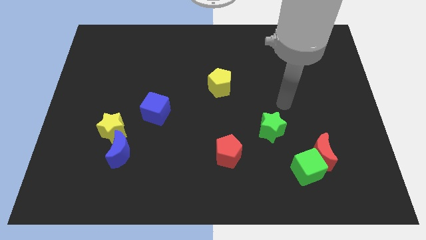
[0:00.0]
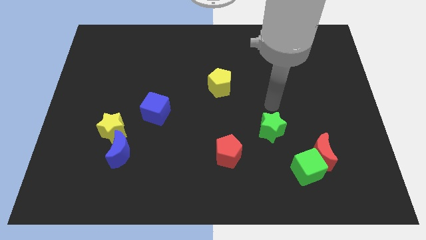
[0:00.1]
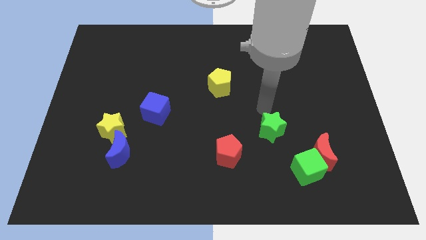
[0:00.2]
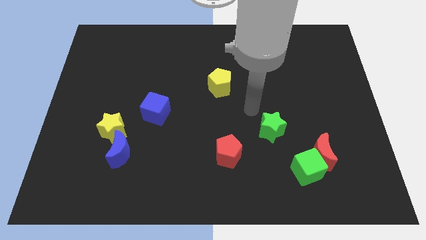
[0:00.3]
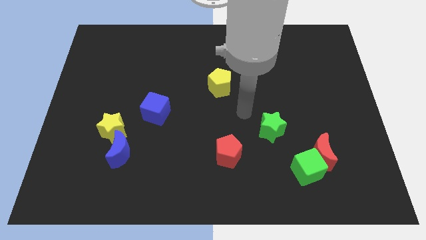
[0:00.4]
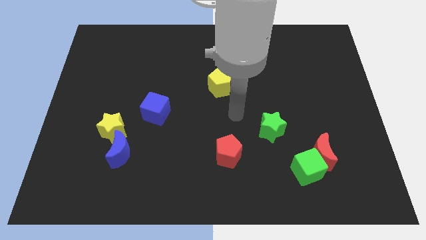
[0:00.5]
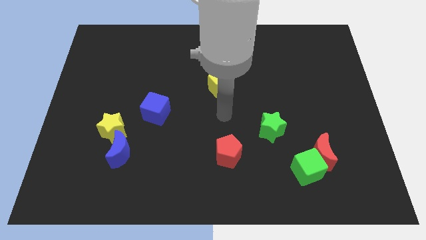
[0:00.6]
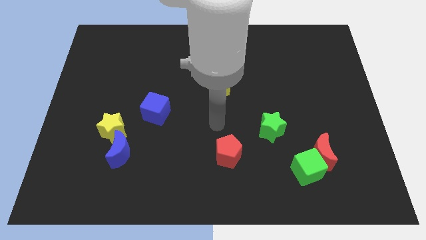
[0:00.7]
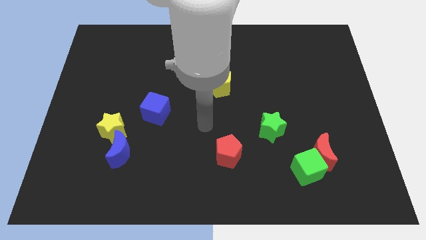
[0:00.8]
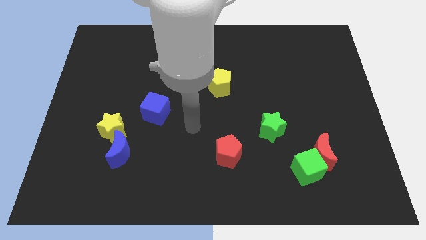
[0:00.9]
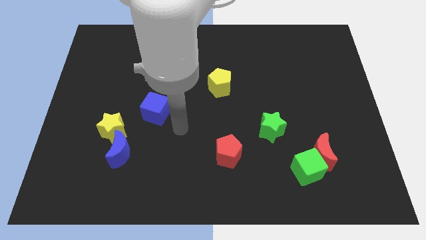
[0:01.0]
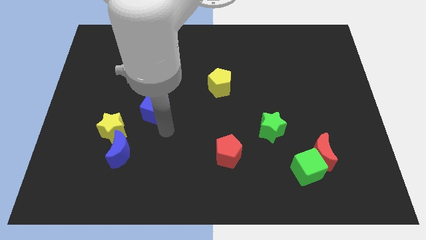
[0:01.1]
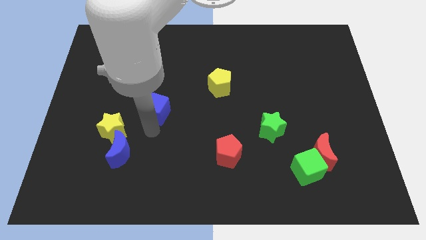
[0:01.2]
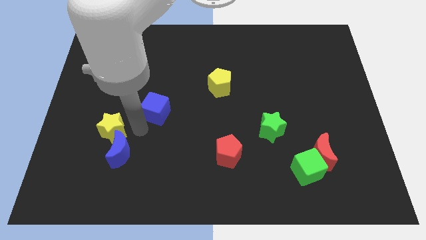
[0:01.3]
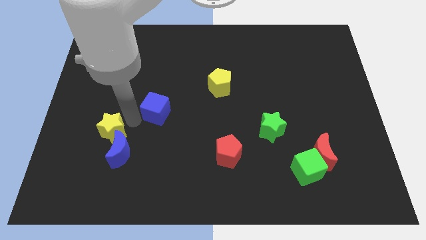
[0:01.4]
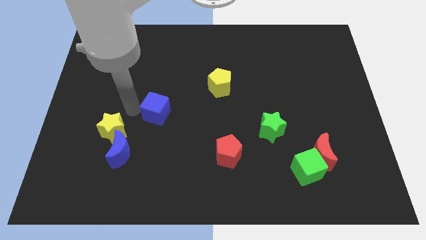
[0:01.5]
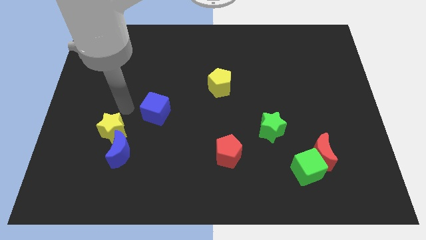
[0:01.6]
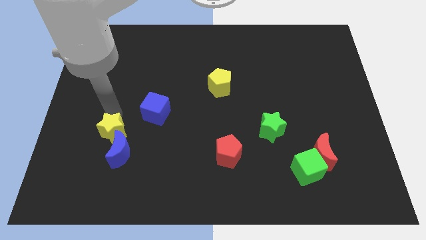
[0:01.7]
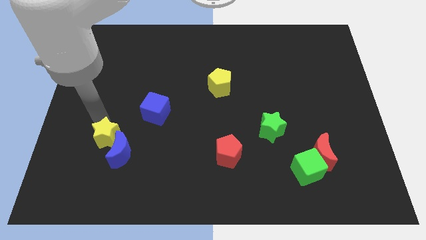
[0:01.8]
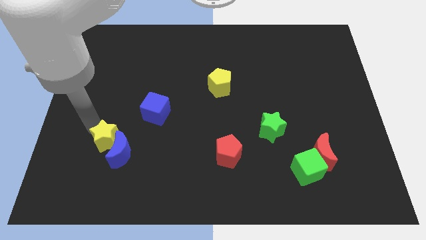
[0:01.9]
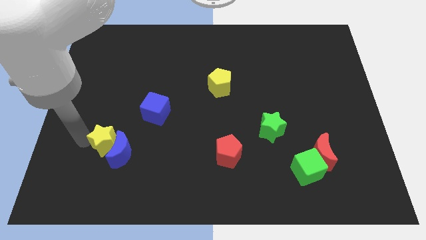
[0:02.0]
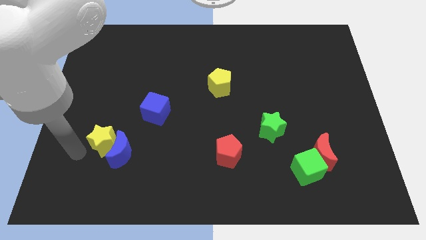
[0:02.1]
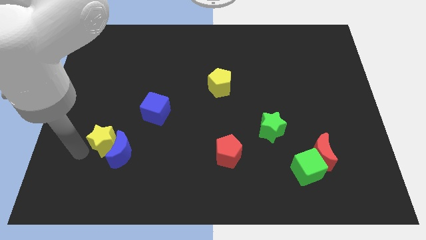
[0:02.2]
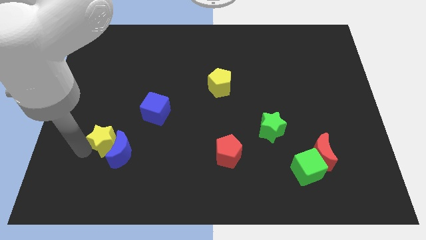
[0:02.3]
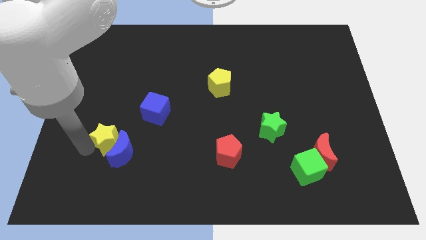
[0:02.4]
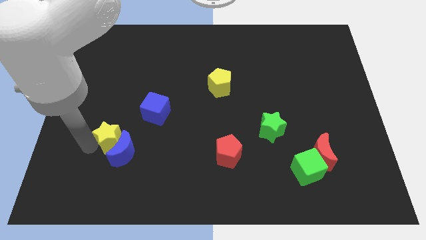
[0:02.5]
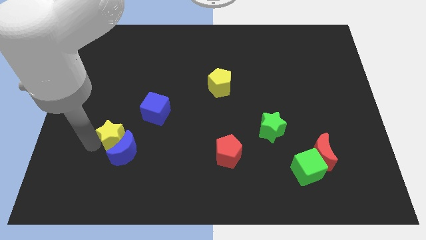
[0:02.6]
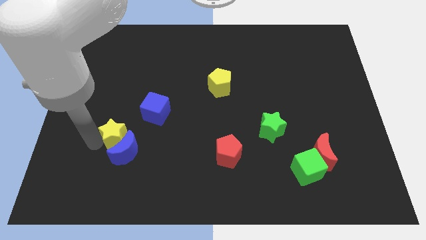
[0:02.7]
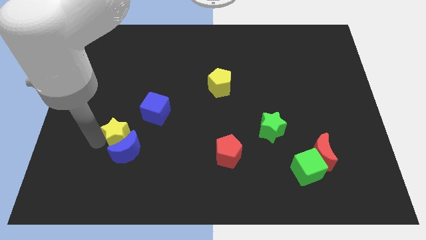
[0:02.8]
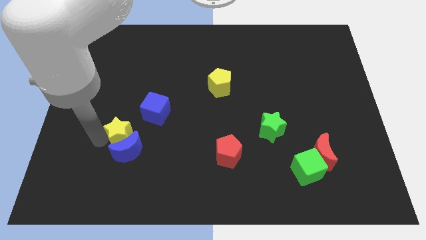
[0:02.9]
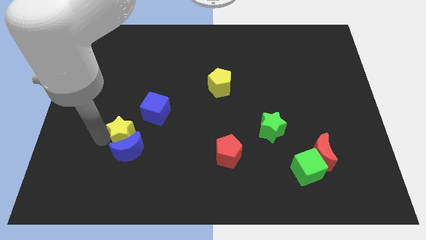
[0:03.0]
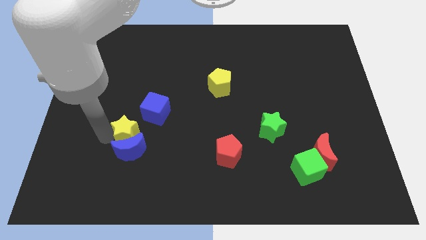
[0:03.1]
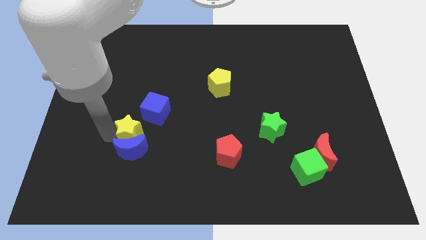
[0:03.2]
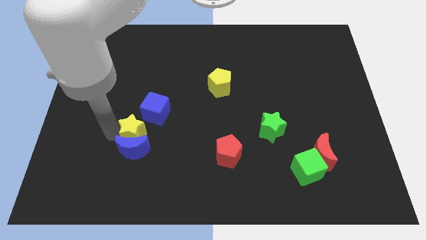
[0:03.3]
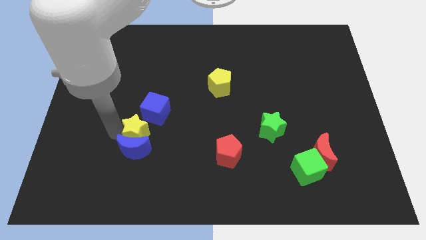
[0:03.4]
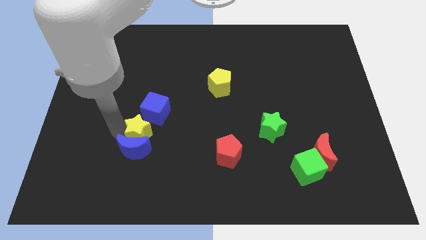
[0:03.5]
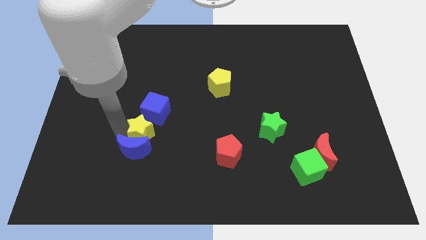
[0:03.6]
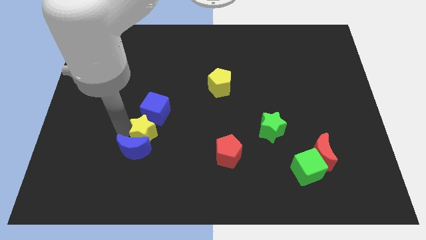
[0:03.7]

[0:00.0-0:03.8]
push the yellow star a little right

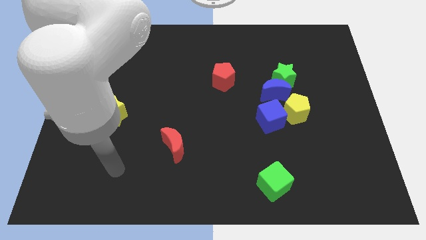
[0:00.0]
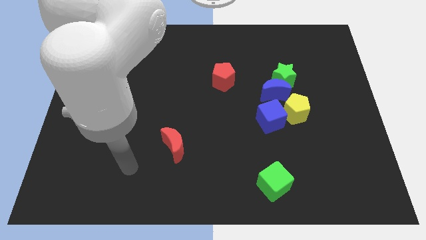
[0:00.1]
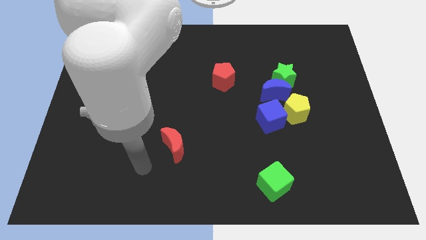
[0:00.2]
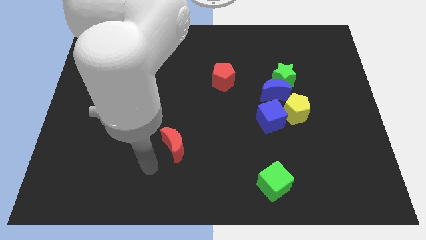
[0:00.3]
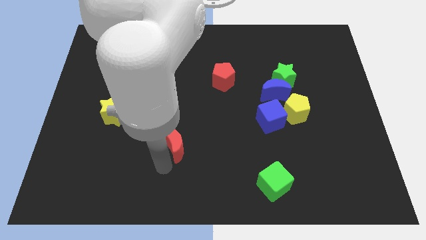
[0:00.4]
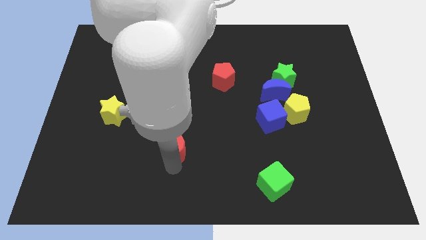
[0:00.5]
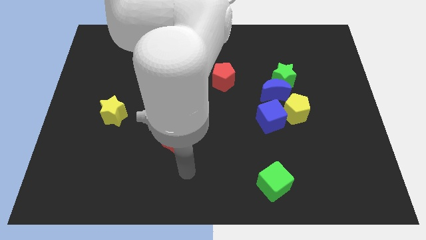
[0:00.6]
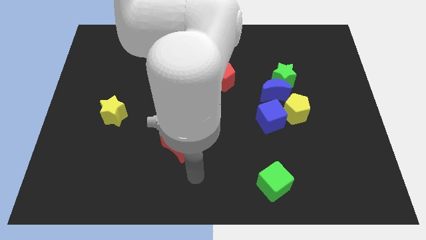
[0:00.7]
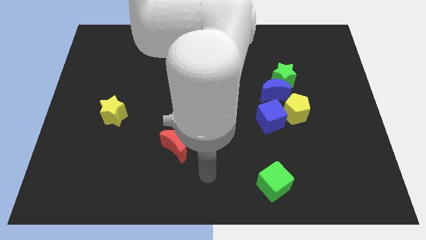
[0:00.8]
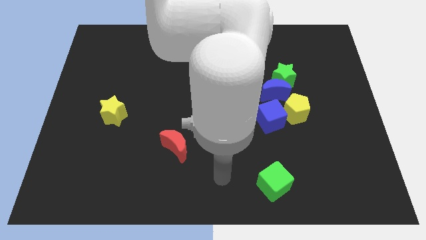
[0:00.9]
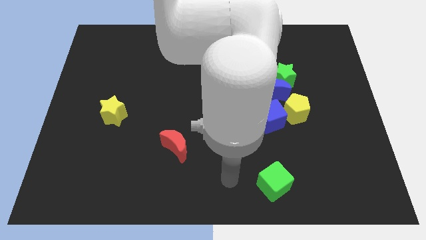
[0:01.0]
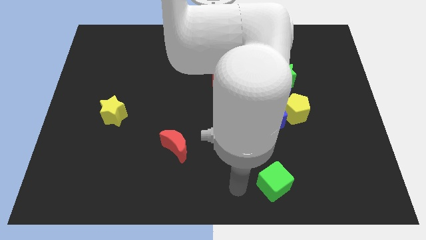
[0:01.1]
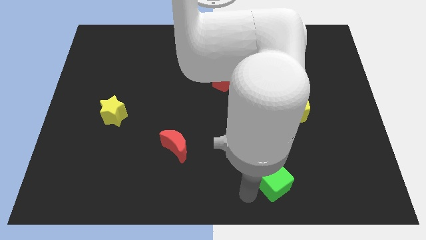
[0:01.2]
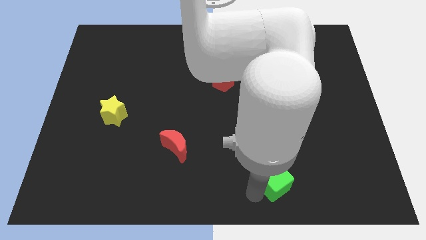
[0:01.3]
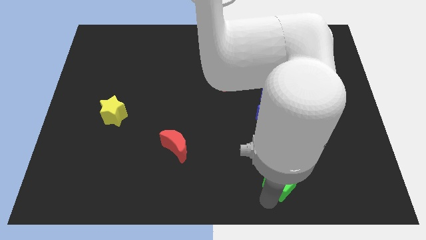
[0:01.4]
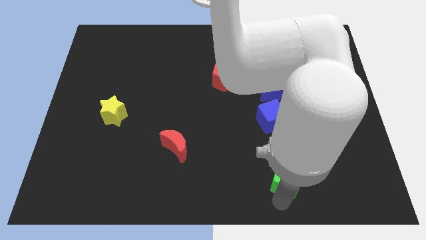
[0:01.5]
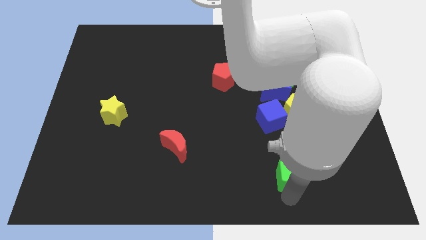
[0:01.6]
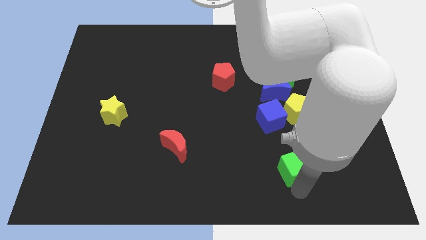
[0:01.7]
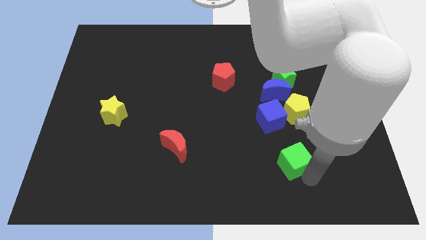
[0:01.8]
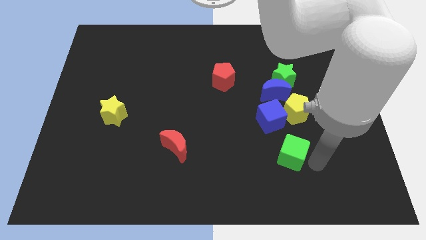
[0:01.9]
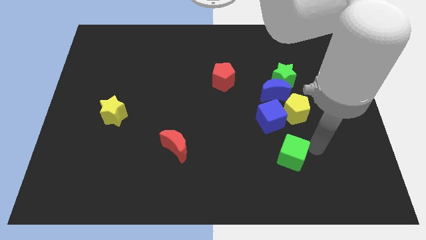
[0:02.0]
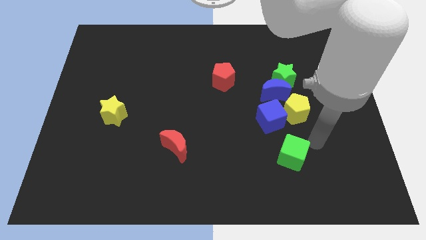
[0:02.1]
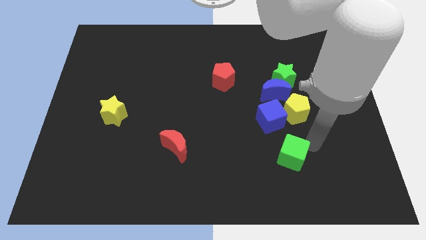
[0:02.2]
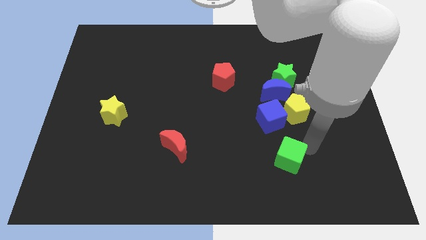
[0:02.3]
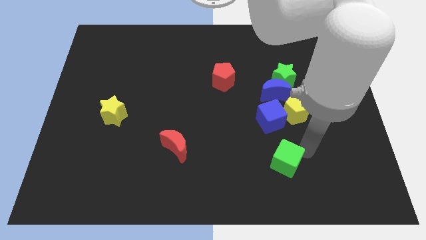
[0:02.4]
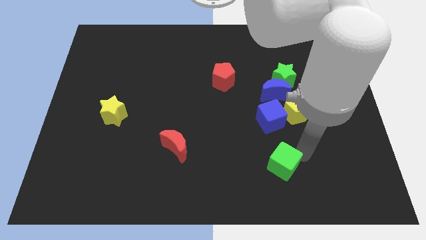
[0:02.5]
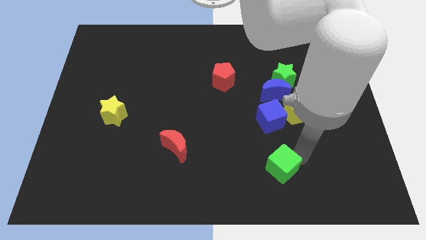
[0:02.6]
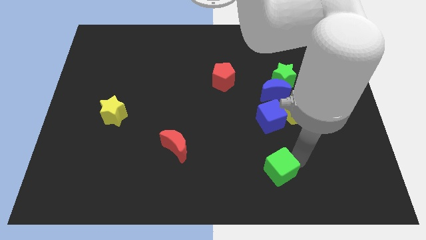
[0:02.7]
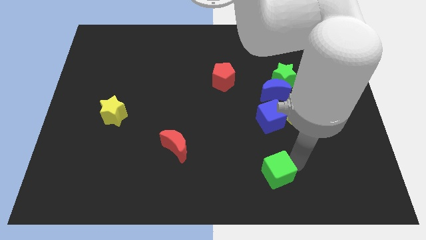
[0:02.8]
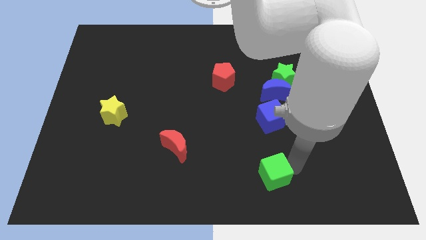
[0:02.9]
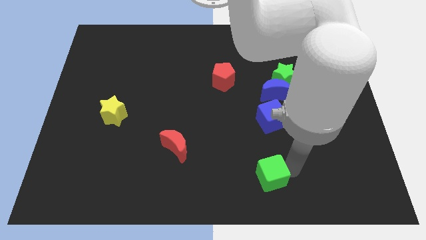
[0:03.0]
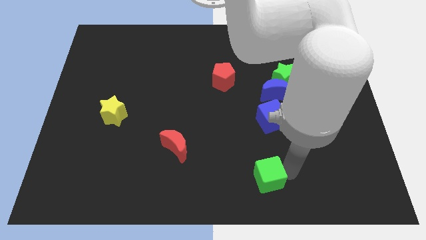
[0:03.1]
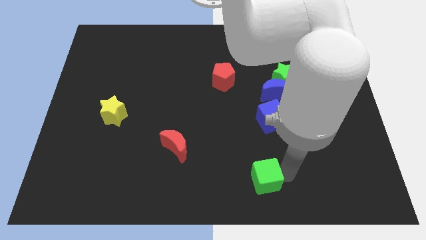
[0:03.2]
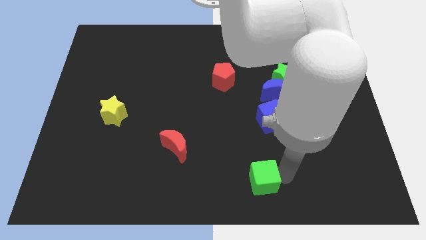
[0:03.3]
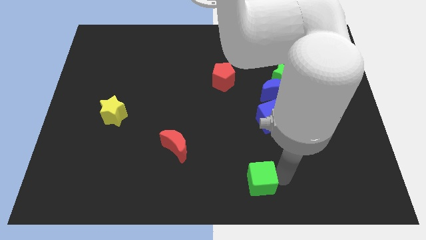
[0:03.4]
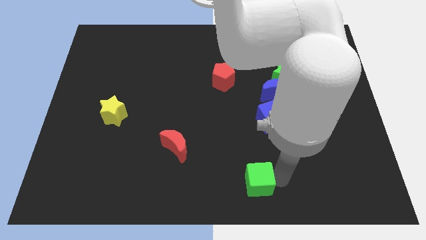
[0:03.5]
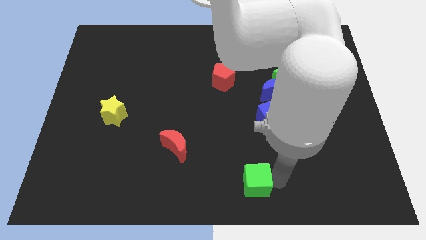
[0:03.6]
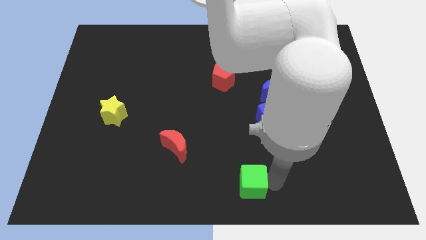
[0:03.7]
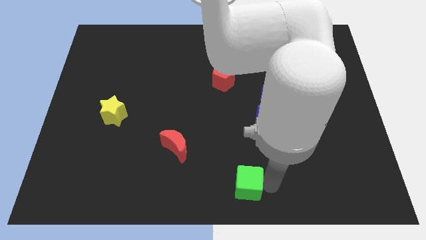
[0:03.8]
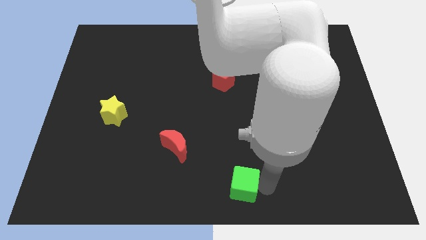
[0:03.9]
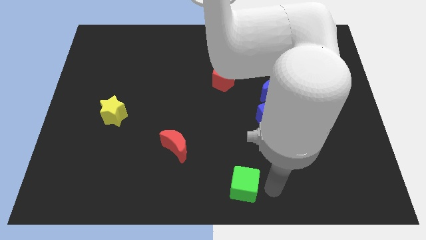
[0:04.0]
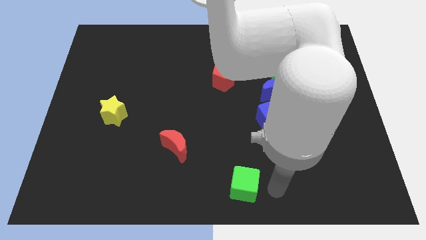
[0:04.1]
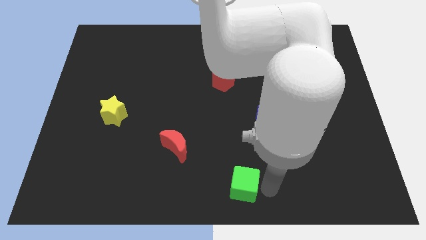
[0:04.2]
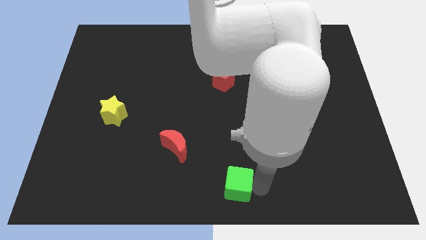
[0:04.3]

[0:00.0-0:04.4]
push the green cube left a bit
